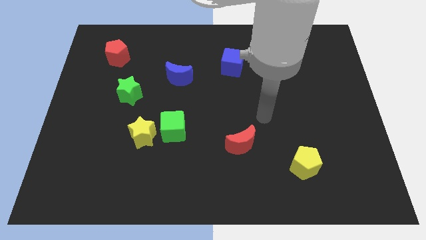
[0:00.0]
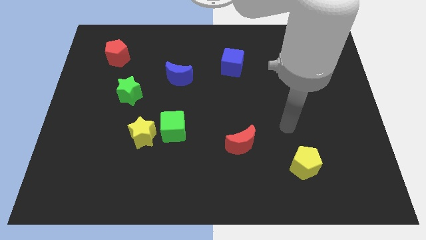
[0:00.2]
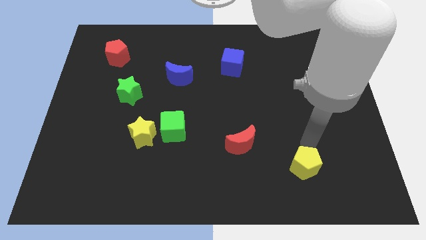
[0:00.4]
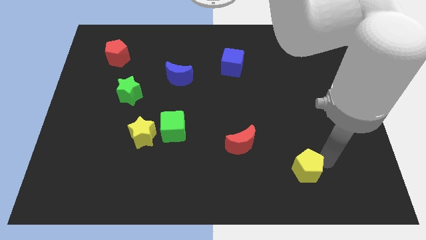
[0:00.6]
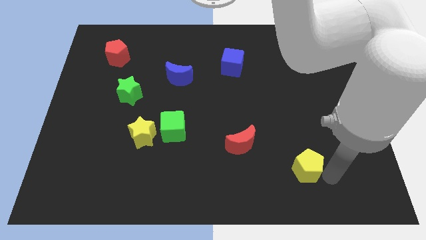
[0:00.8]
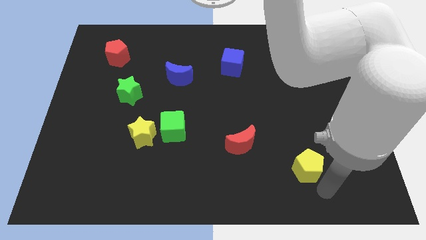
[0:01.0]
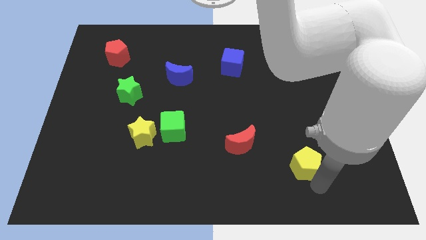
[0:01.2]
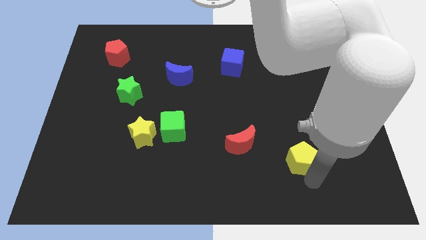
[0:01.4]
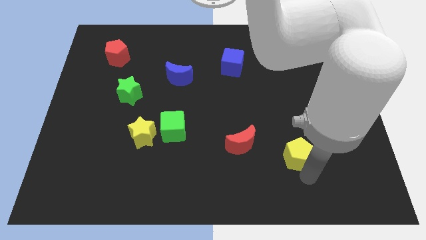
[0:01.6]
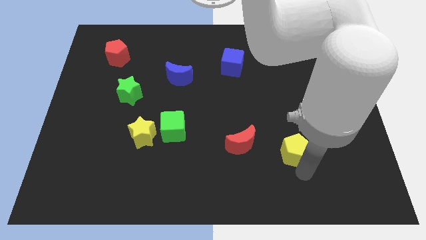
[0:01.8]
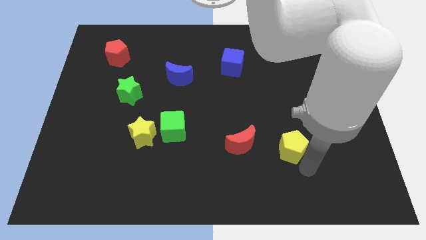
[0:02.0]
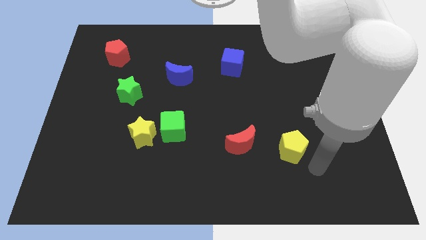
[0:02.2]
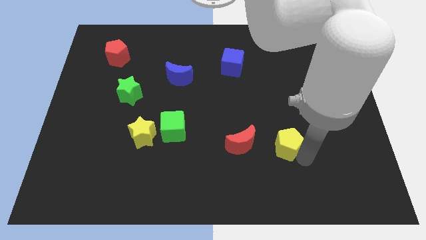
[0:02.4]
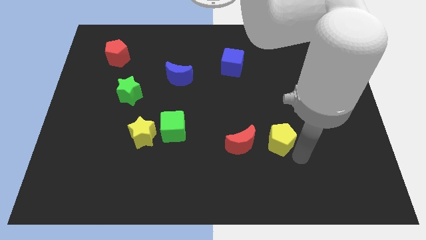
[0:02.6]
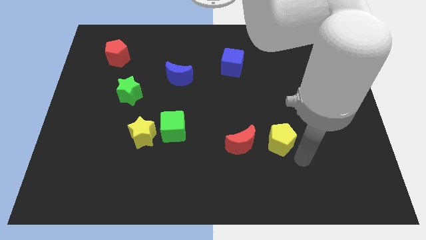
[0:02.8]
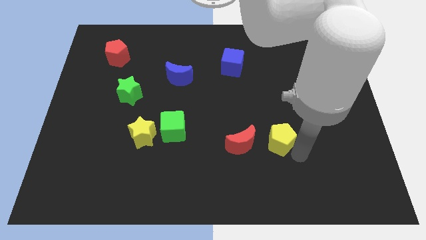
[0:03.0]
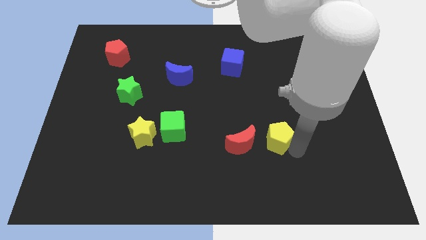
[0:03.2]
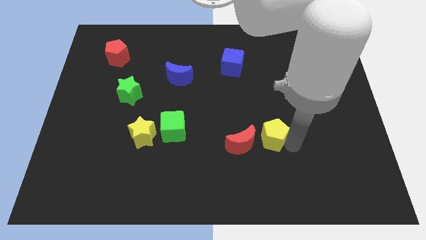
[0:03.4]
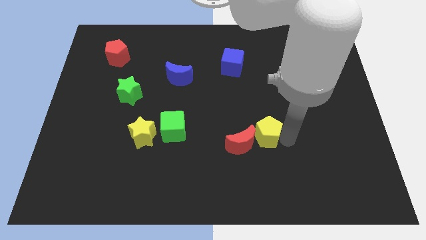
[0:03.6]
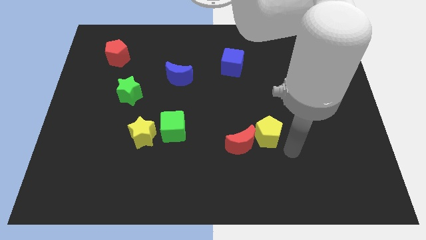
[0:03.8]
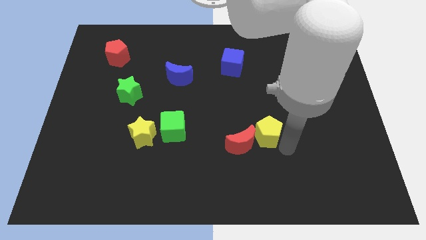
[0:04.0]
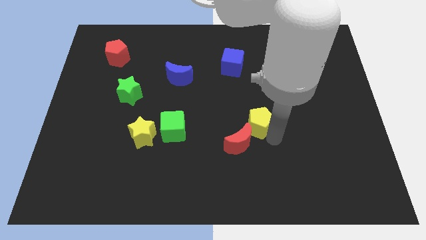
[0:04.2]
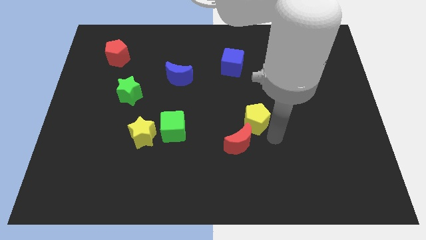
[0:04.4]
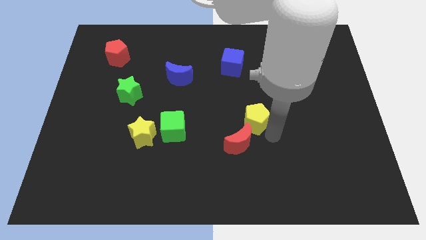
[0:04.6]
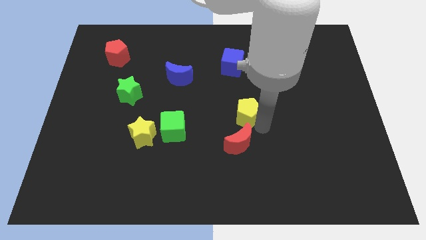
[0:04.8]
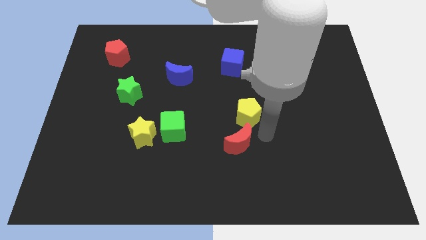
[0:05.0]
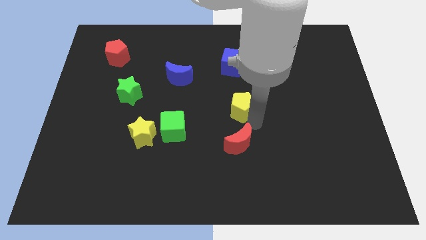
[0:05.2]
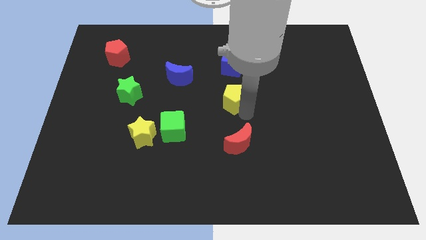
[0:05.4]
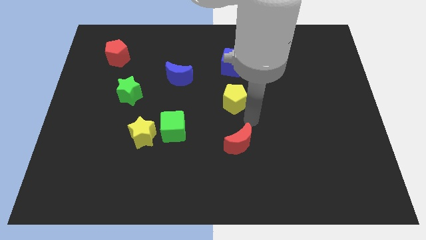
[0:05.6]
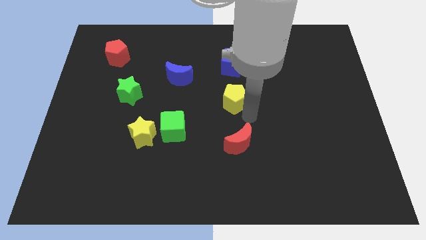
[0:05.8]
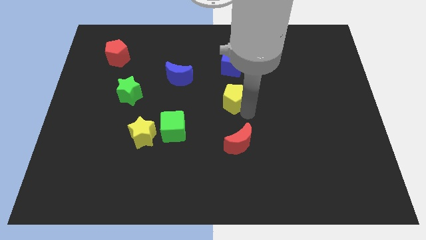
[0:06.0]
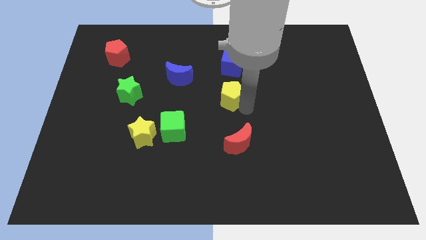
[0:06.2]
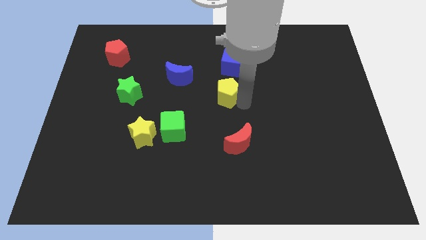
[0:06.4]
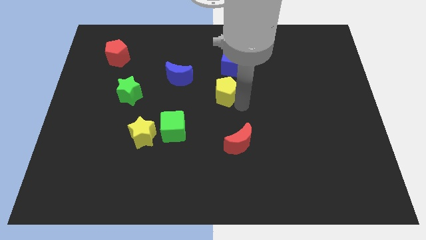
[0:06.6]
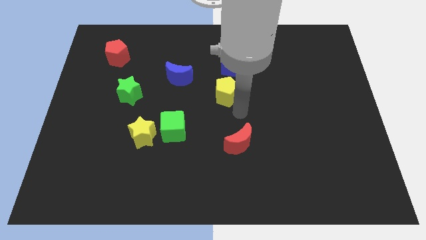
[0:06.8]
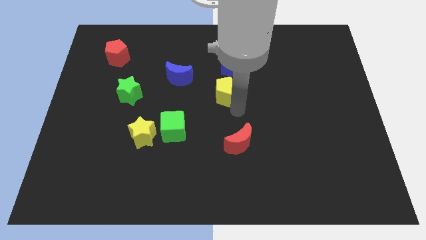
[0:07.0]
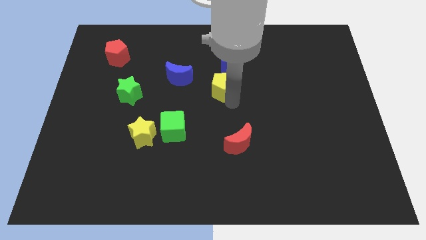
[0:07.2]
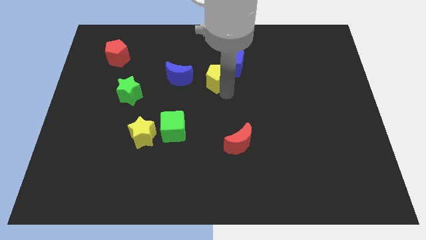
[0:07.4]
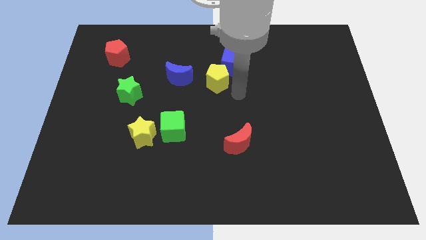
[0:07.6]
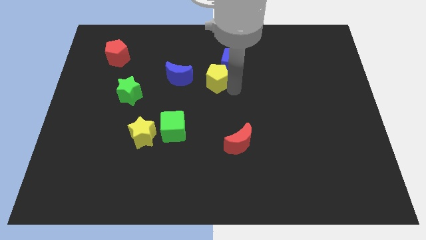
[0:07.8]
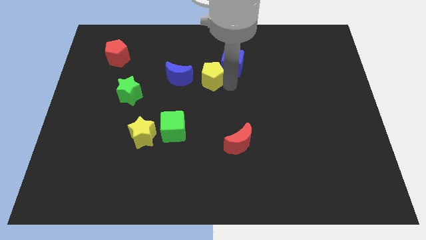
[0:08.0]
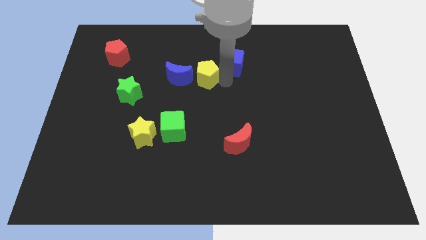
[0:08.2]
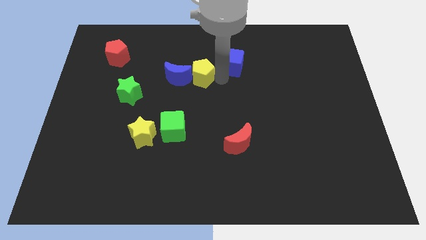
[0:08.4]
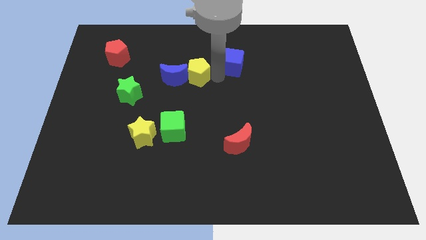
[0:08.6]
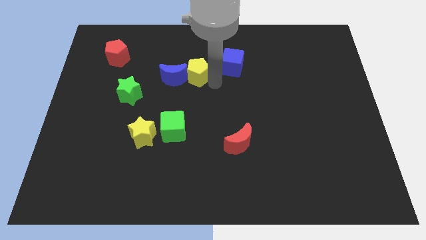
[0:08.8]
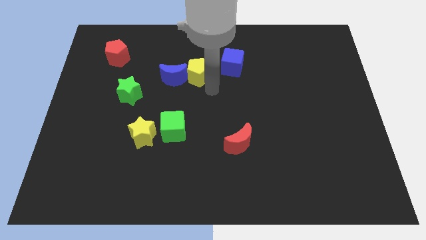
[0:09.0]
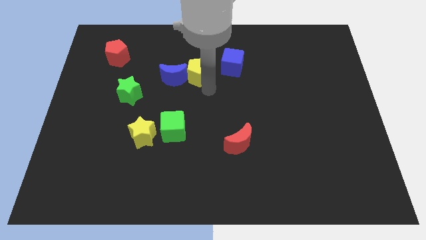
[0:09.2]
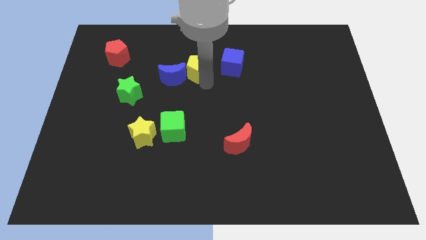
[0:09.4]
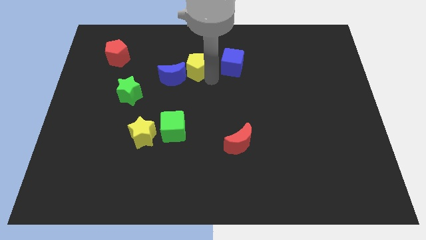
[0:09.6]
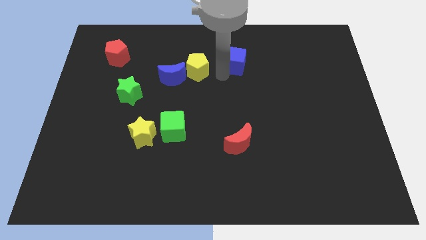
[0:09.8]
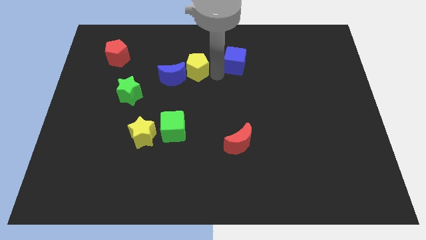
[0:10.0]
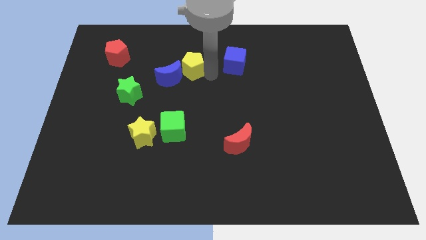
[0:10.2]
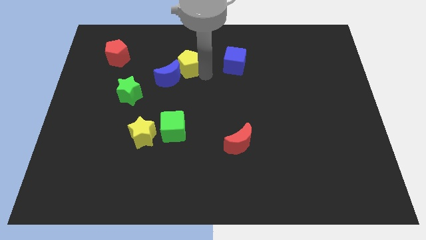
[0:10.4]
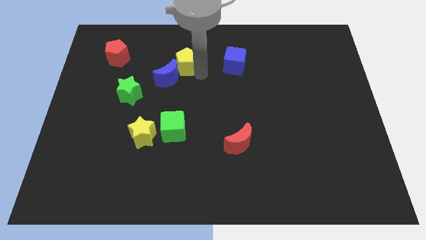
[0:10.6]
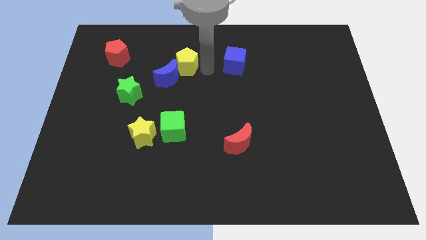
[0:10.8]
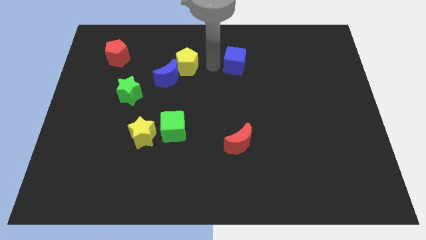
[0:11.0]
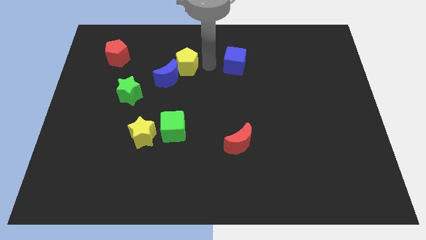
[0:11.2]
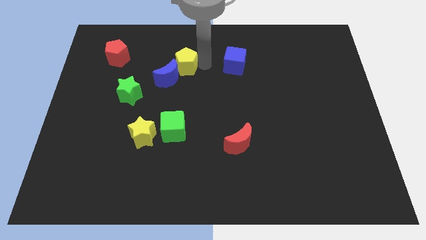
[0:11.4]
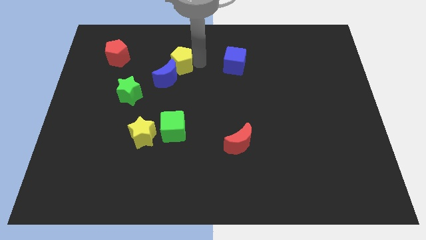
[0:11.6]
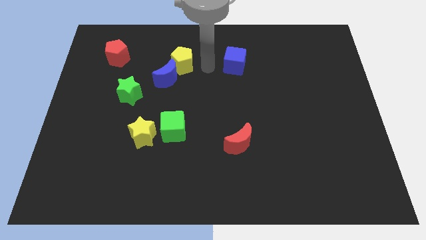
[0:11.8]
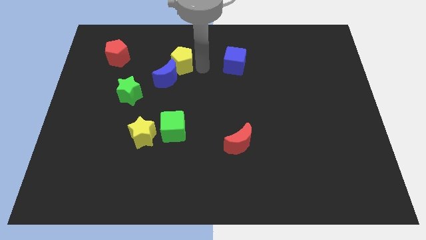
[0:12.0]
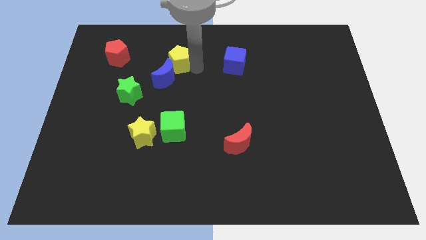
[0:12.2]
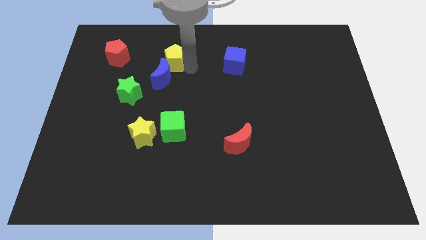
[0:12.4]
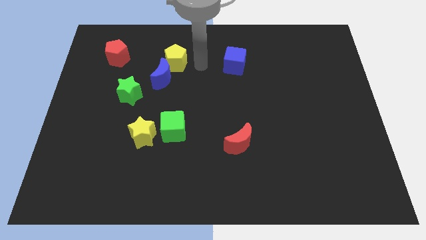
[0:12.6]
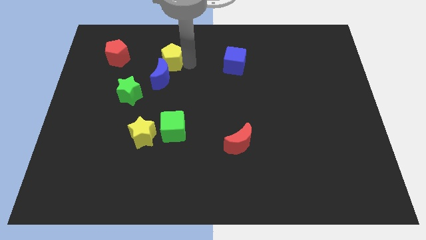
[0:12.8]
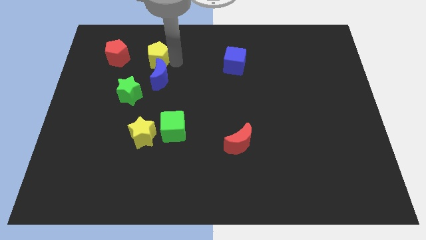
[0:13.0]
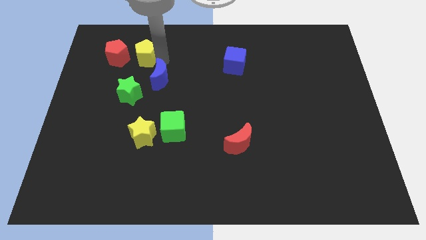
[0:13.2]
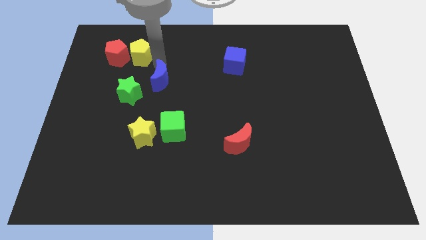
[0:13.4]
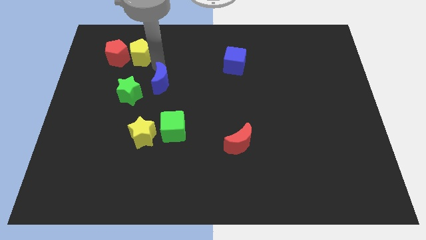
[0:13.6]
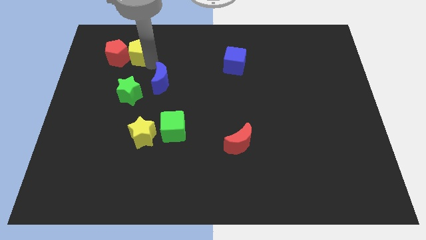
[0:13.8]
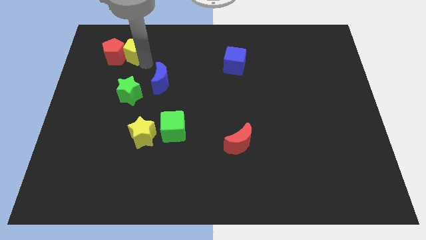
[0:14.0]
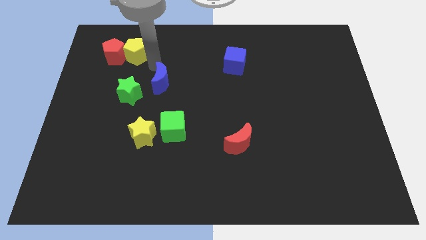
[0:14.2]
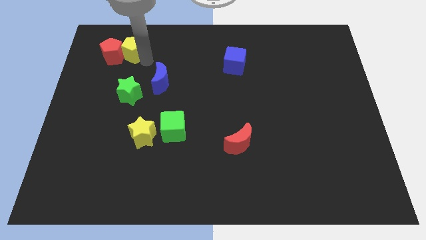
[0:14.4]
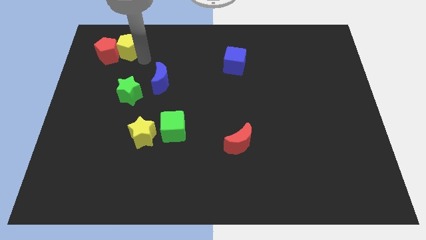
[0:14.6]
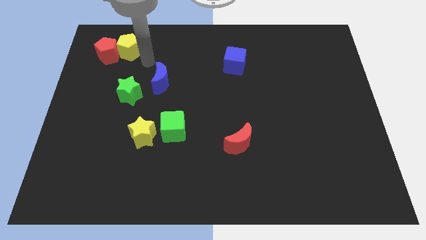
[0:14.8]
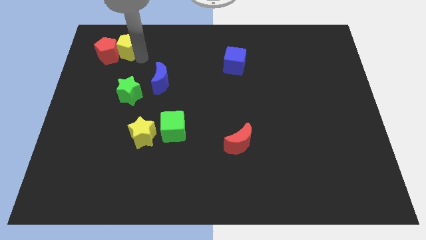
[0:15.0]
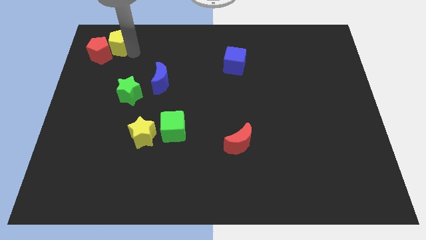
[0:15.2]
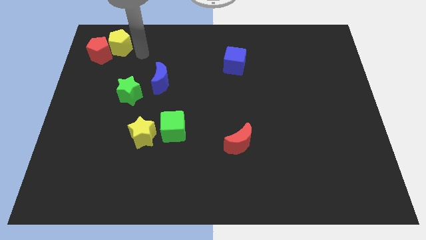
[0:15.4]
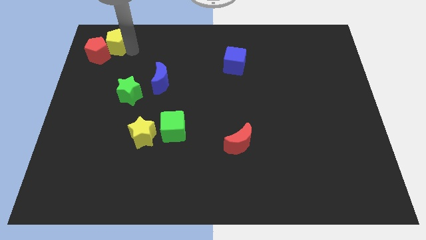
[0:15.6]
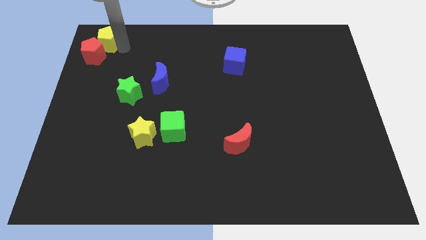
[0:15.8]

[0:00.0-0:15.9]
slide the yellow pentagon to the upper left corner
